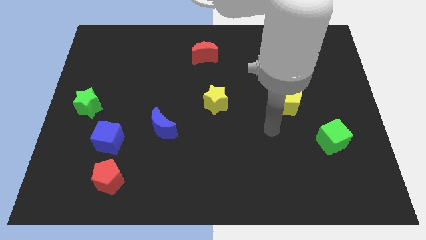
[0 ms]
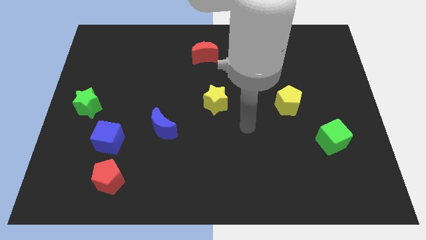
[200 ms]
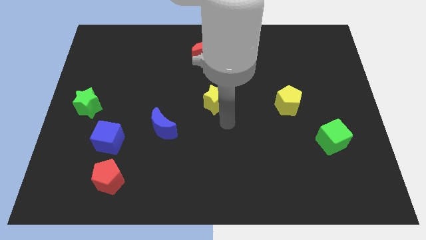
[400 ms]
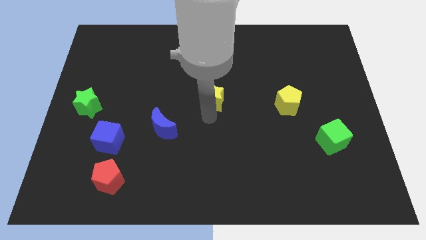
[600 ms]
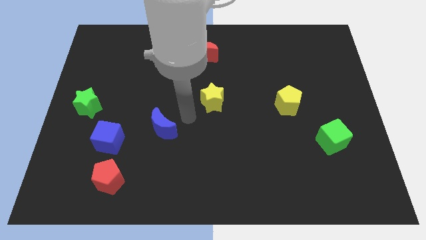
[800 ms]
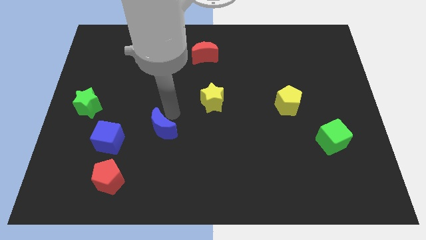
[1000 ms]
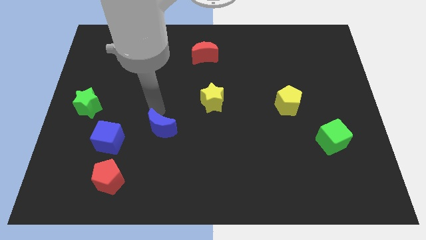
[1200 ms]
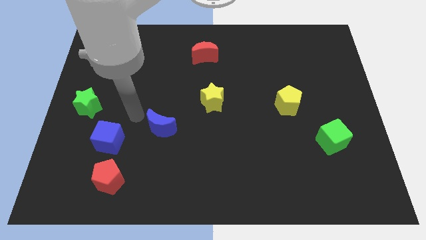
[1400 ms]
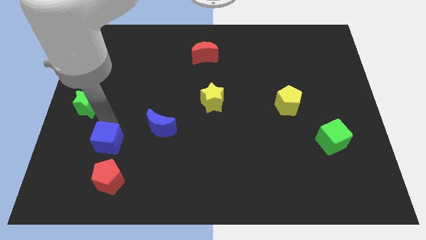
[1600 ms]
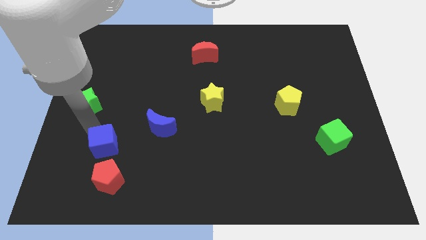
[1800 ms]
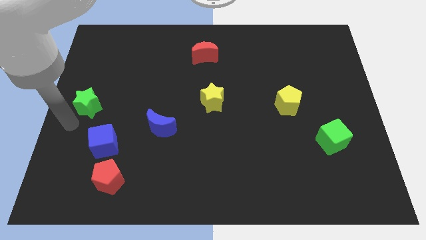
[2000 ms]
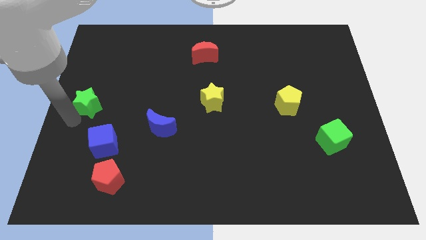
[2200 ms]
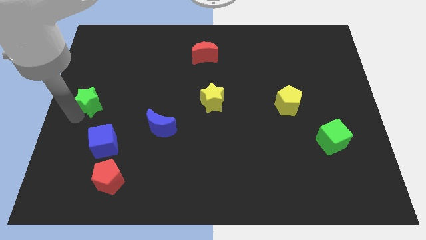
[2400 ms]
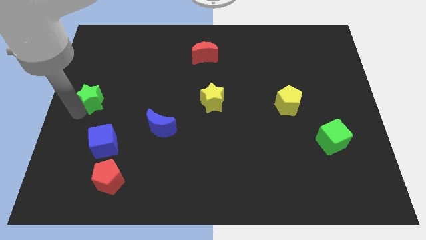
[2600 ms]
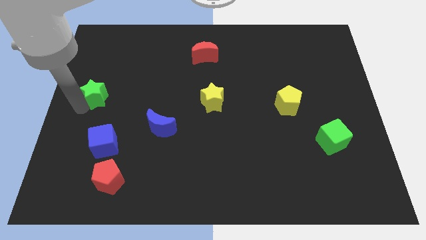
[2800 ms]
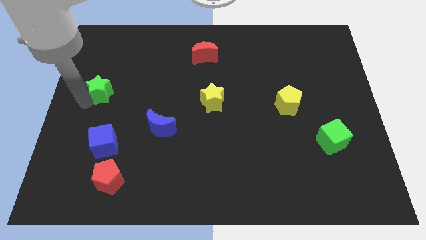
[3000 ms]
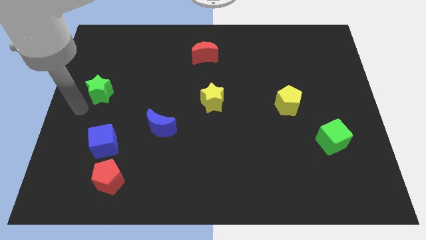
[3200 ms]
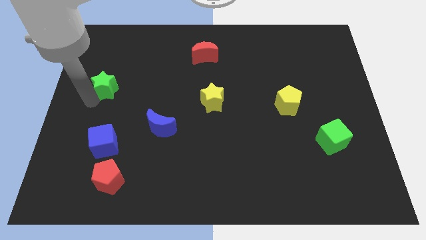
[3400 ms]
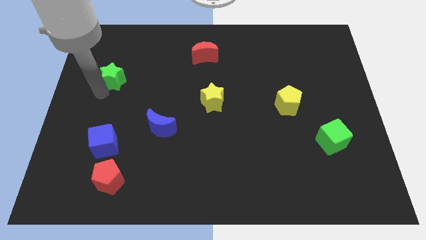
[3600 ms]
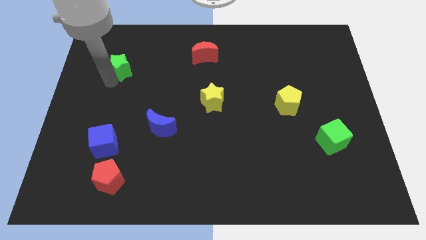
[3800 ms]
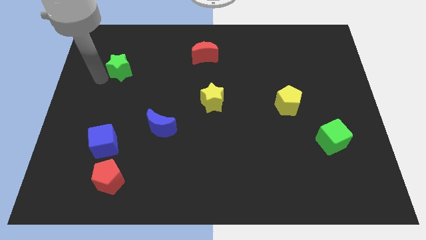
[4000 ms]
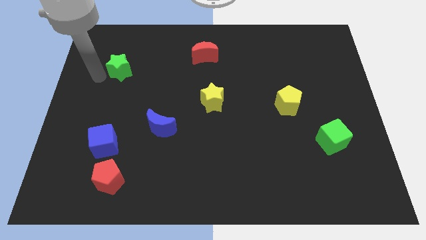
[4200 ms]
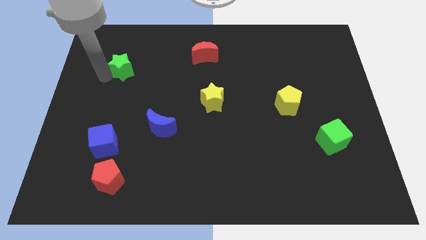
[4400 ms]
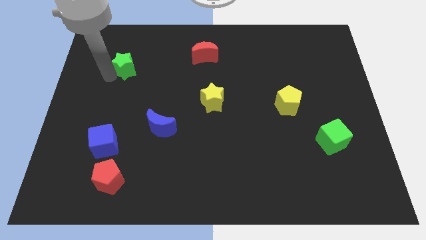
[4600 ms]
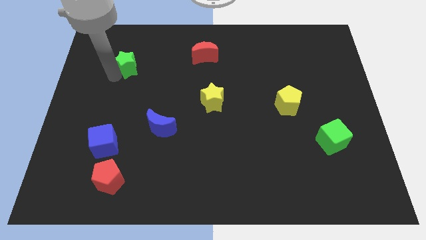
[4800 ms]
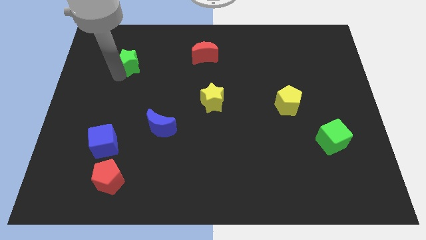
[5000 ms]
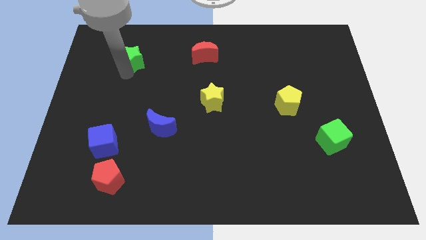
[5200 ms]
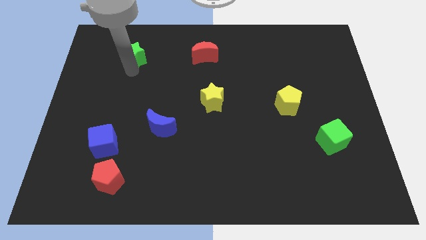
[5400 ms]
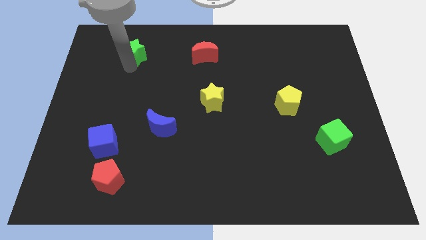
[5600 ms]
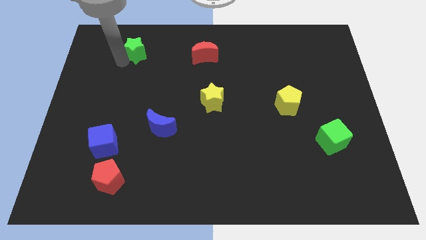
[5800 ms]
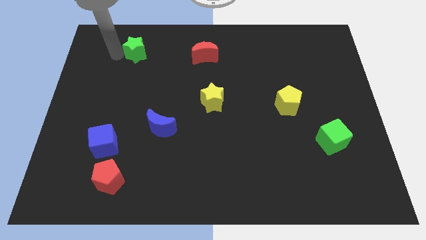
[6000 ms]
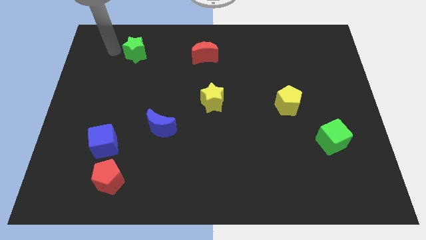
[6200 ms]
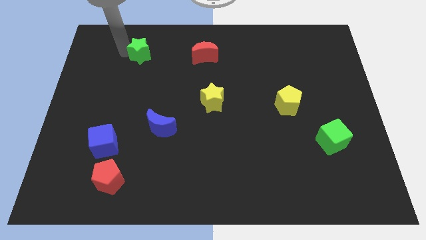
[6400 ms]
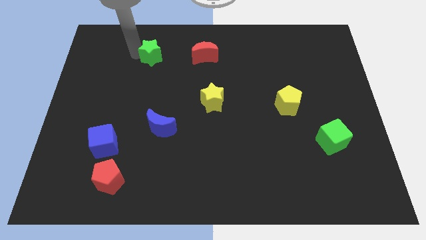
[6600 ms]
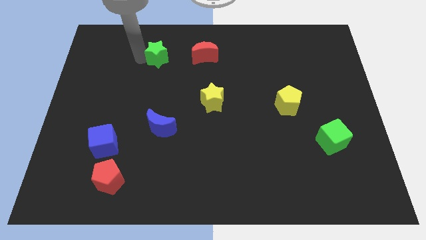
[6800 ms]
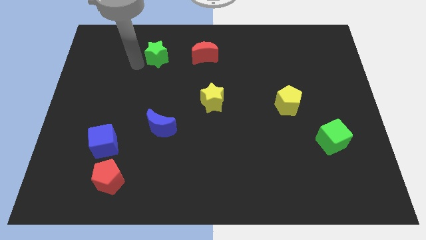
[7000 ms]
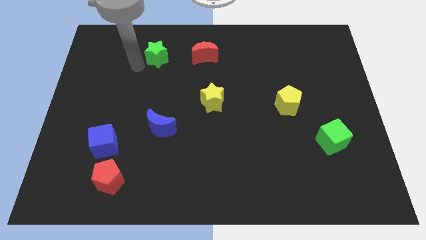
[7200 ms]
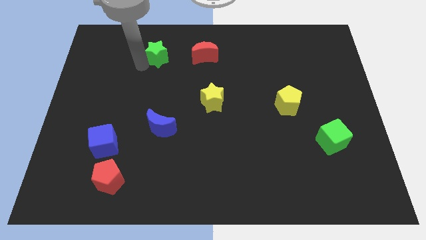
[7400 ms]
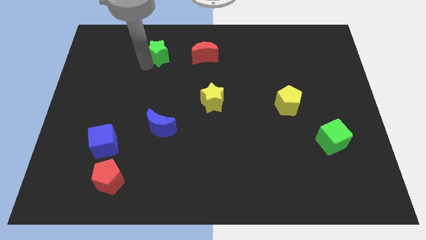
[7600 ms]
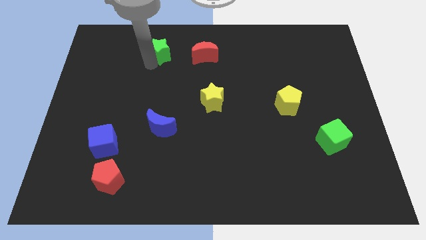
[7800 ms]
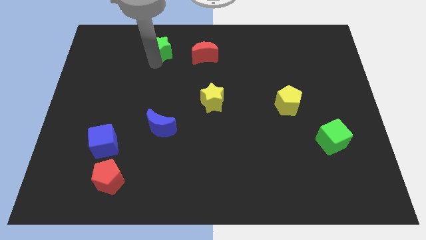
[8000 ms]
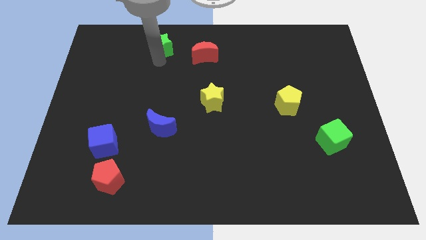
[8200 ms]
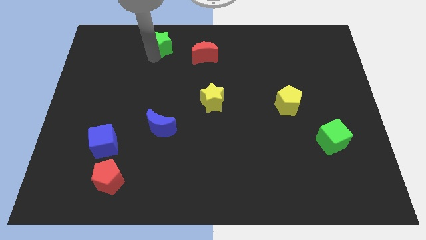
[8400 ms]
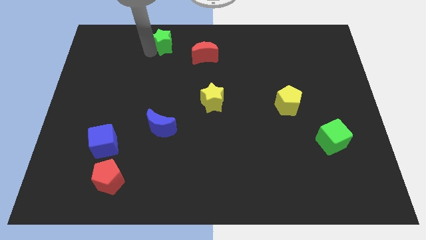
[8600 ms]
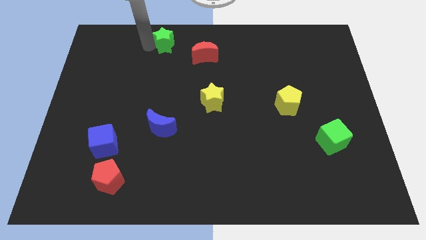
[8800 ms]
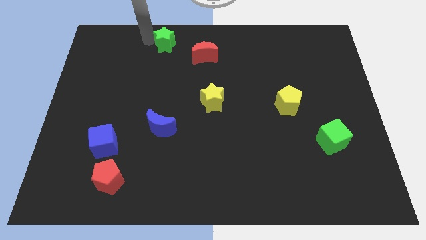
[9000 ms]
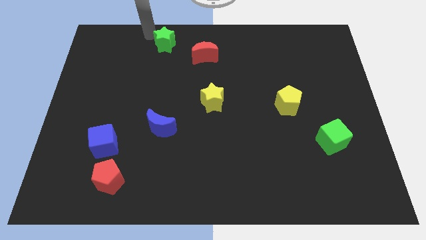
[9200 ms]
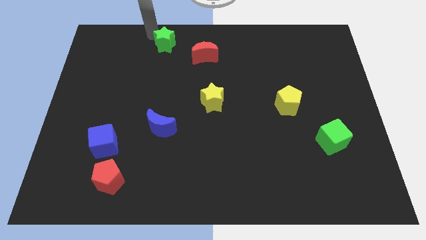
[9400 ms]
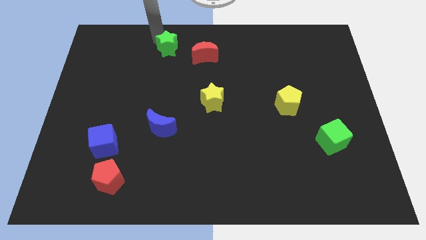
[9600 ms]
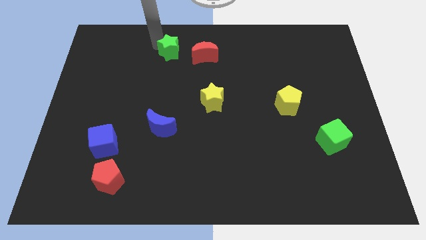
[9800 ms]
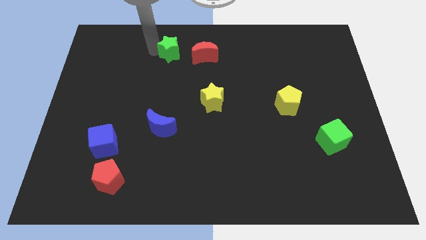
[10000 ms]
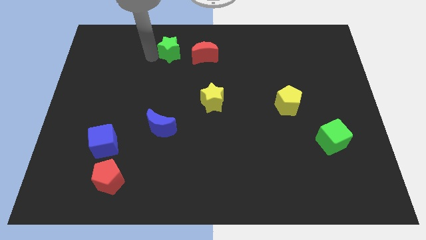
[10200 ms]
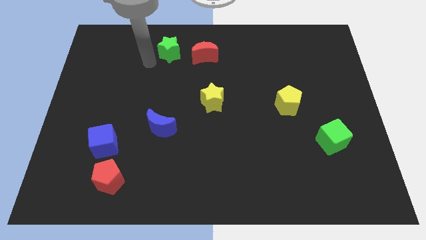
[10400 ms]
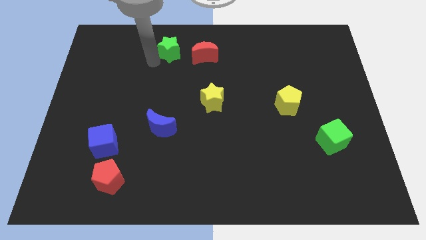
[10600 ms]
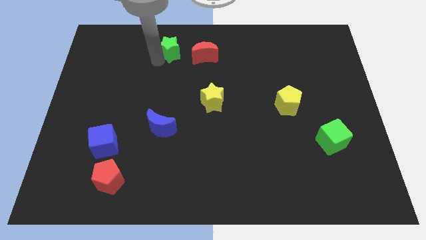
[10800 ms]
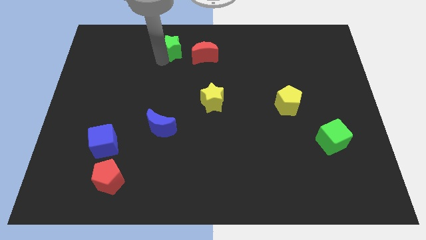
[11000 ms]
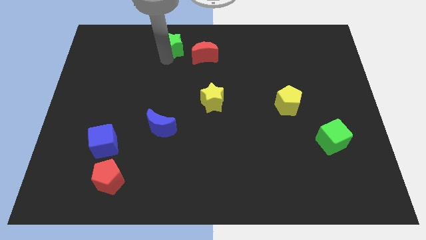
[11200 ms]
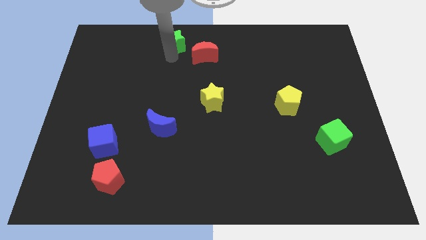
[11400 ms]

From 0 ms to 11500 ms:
push the green star to the top

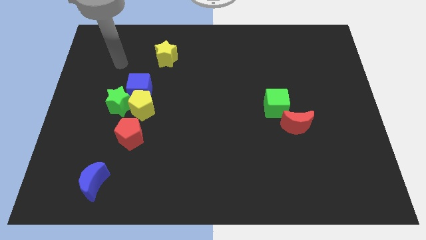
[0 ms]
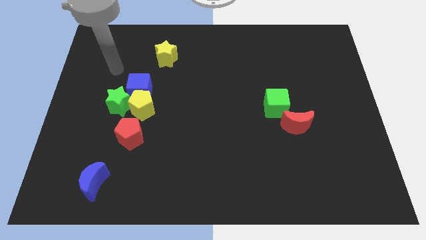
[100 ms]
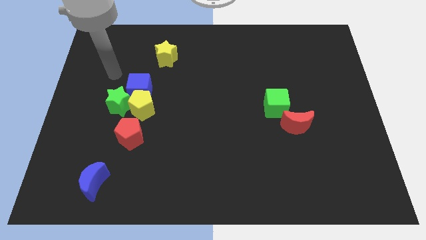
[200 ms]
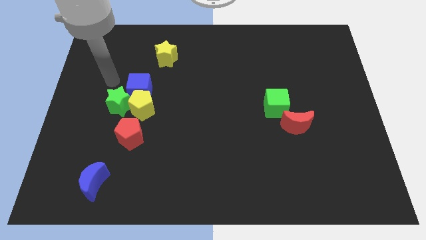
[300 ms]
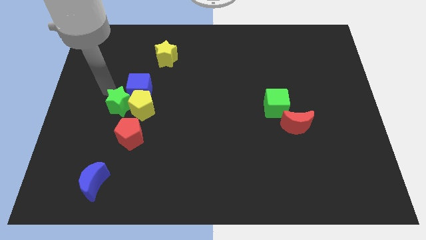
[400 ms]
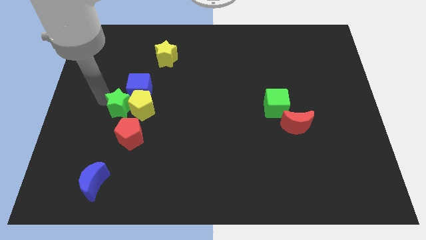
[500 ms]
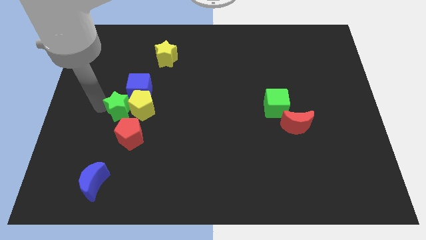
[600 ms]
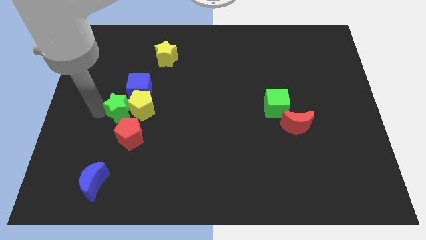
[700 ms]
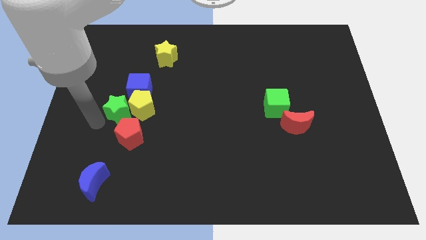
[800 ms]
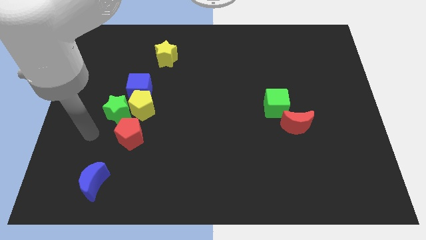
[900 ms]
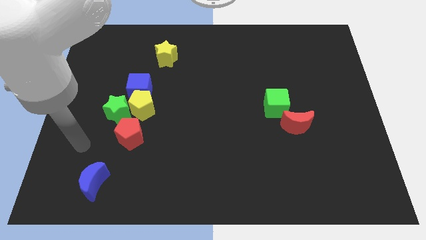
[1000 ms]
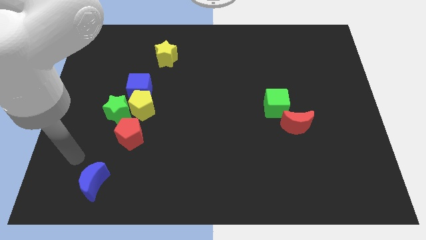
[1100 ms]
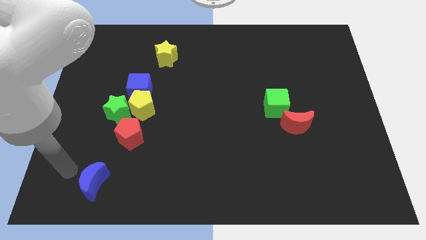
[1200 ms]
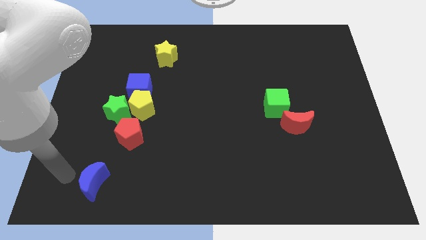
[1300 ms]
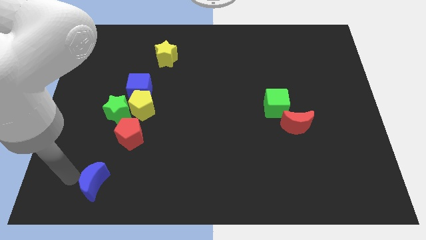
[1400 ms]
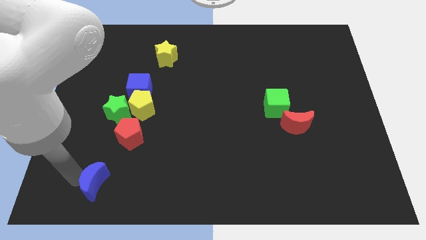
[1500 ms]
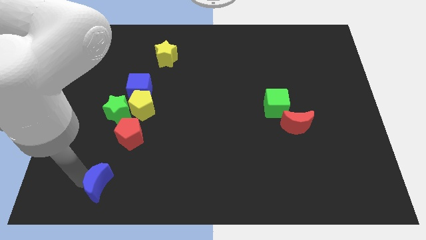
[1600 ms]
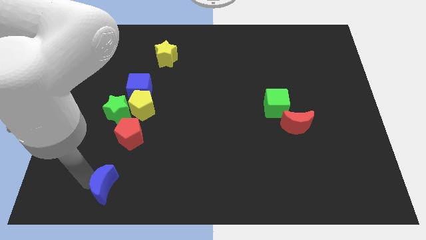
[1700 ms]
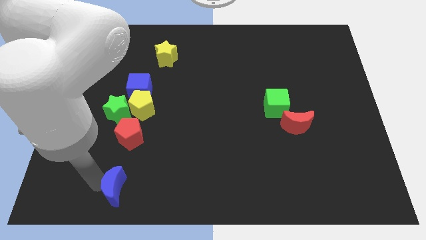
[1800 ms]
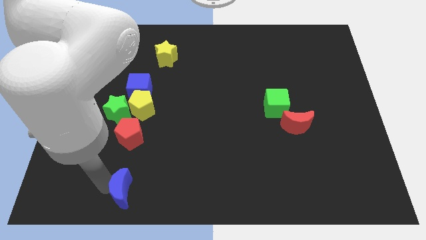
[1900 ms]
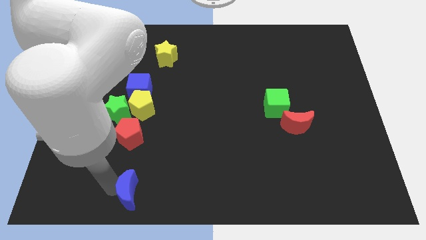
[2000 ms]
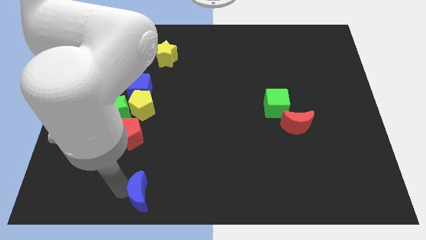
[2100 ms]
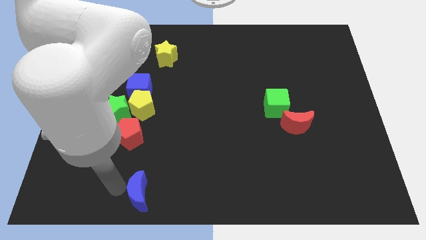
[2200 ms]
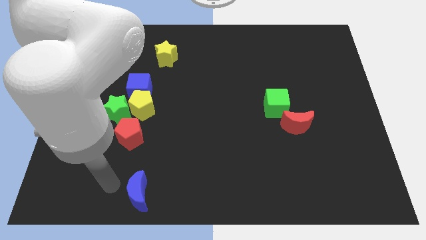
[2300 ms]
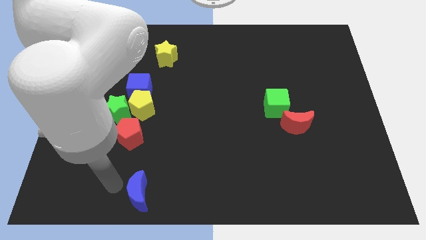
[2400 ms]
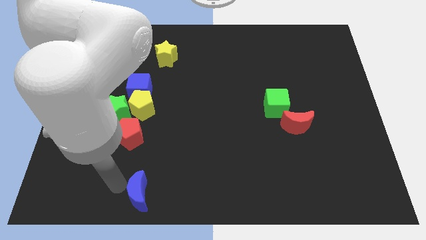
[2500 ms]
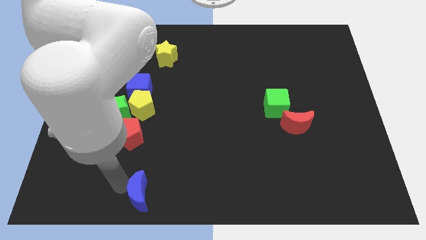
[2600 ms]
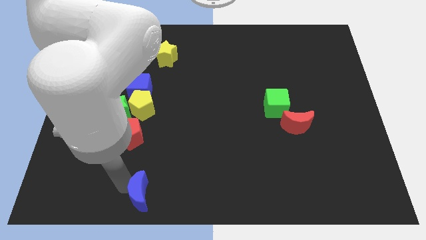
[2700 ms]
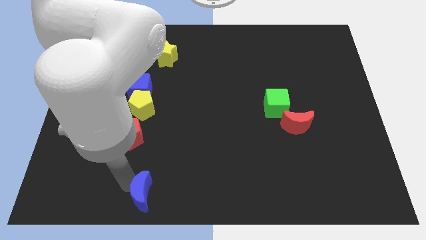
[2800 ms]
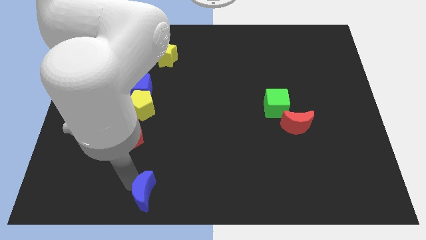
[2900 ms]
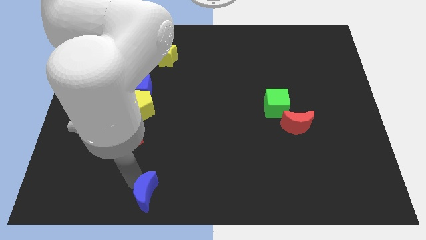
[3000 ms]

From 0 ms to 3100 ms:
push the blue moon to the bottom side
